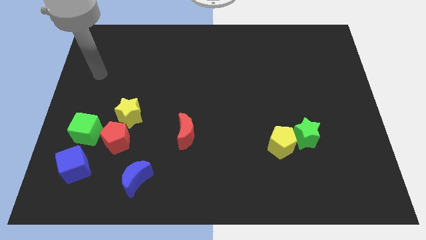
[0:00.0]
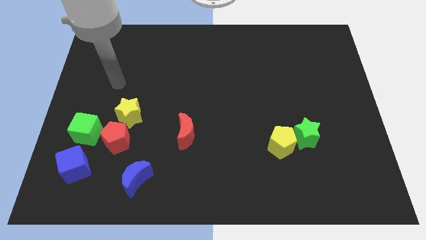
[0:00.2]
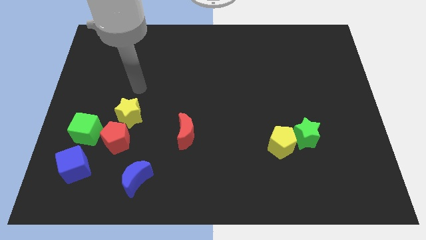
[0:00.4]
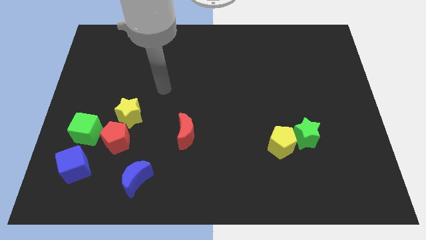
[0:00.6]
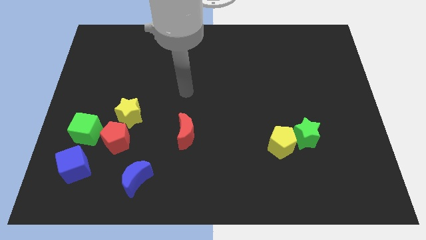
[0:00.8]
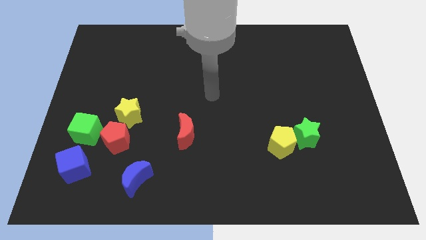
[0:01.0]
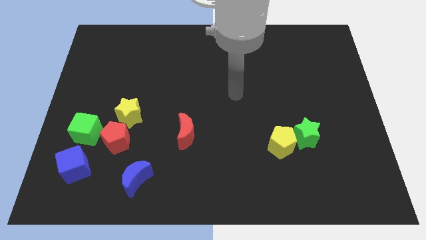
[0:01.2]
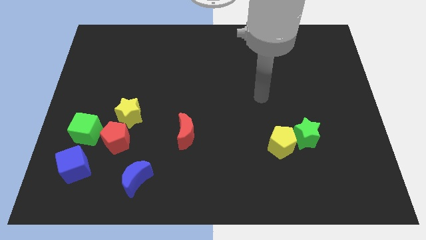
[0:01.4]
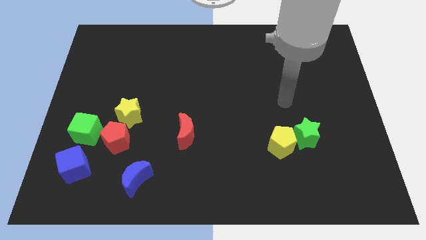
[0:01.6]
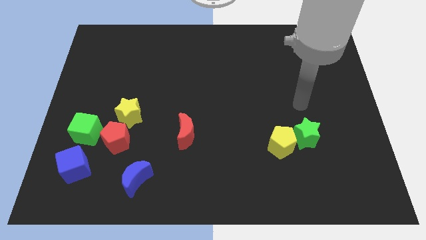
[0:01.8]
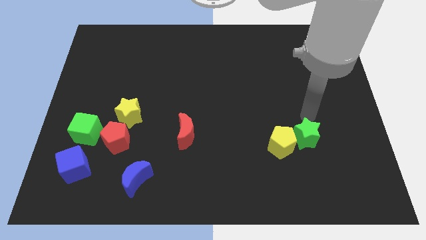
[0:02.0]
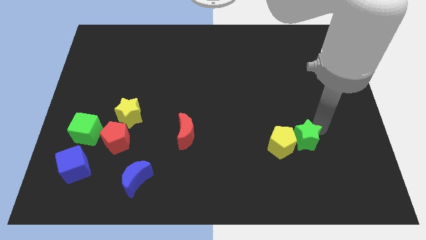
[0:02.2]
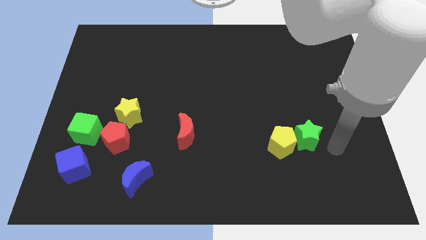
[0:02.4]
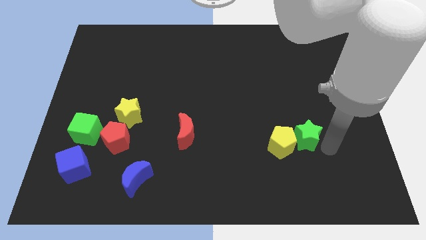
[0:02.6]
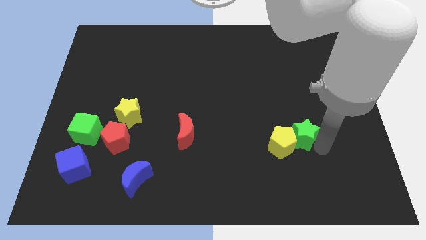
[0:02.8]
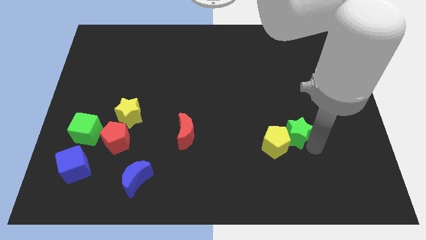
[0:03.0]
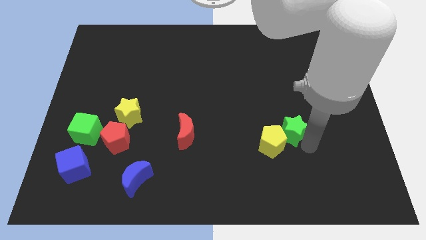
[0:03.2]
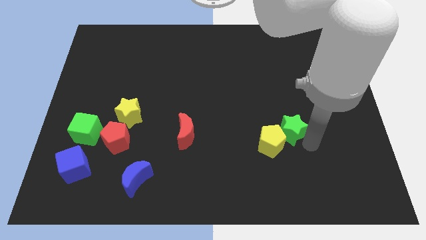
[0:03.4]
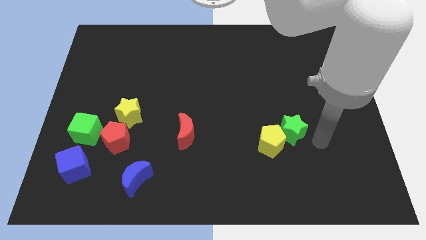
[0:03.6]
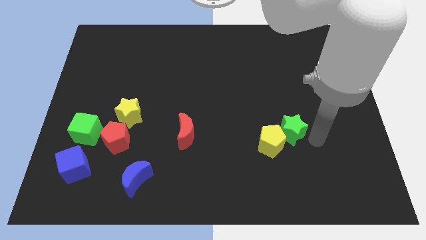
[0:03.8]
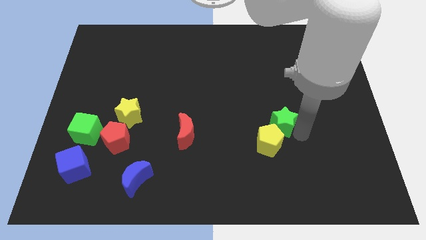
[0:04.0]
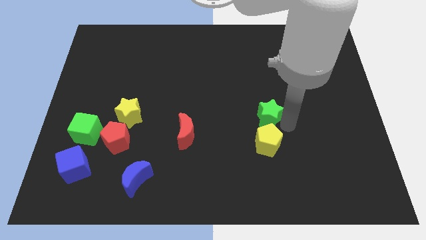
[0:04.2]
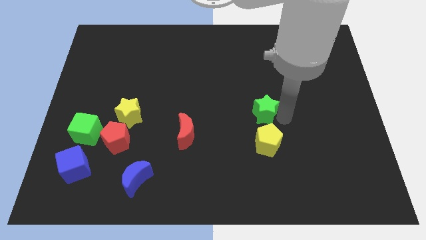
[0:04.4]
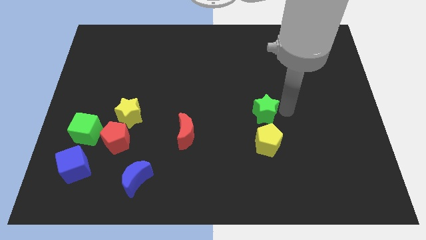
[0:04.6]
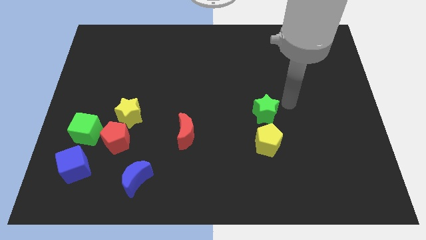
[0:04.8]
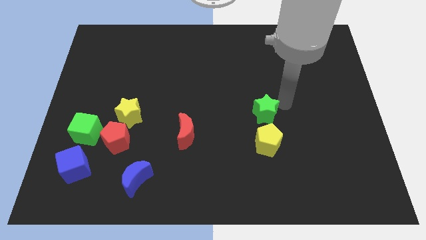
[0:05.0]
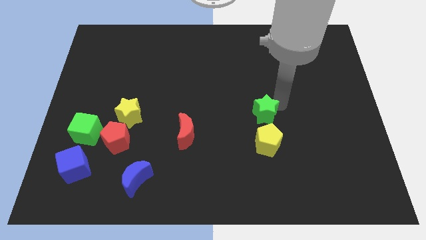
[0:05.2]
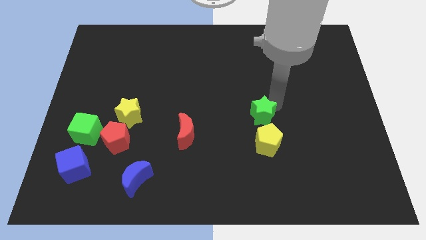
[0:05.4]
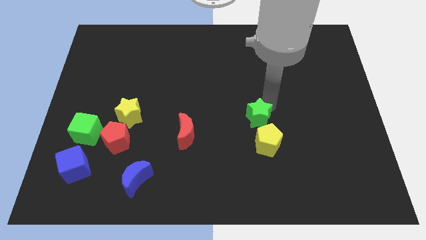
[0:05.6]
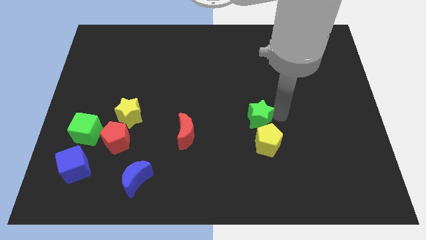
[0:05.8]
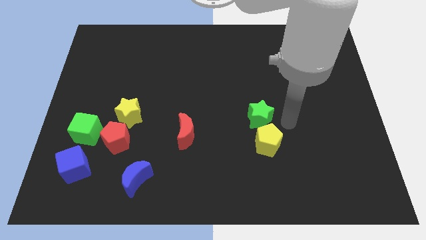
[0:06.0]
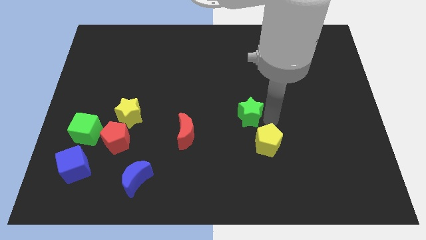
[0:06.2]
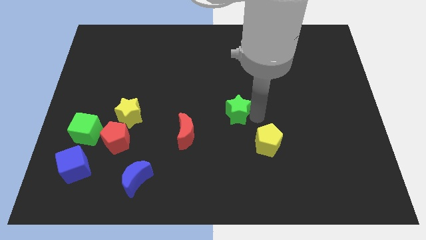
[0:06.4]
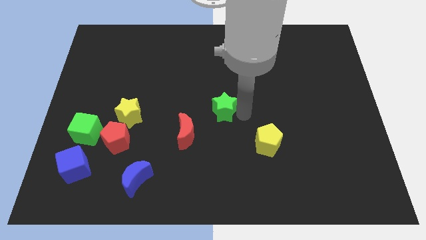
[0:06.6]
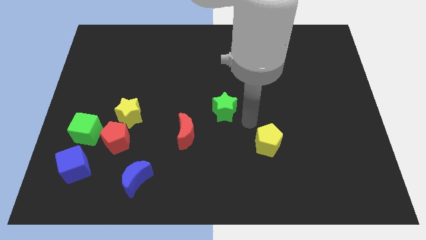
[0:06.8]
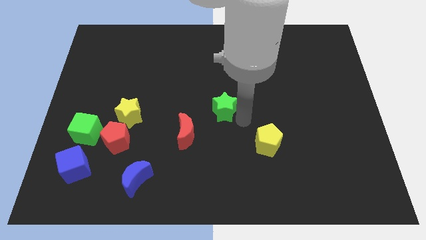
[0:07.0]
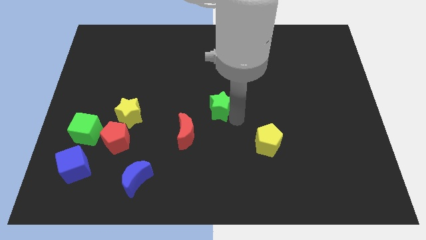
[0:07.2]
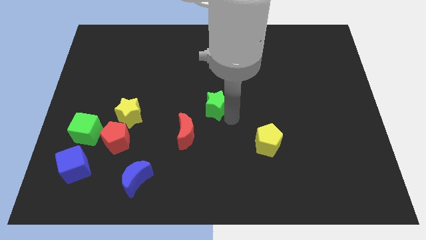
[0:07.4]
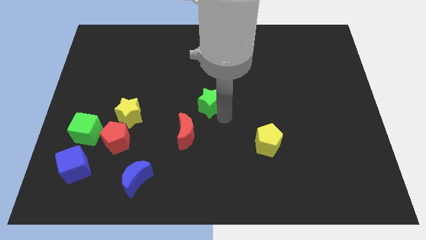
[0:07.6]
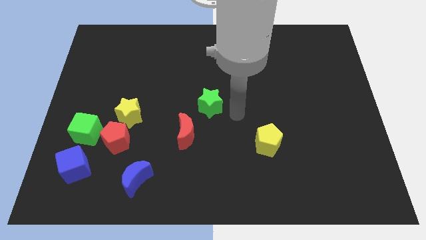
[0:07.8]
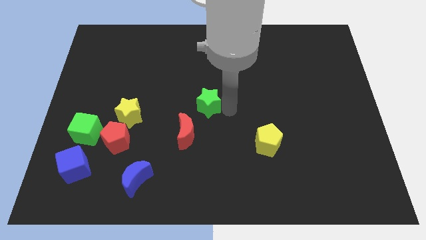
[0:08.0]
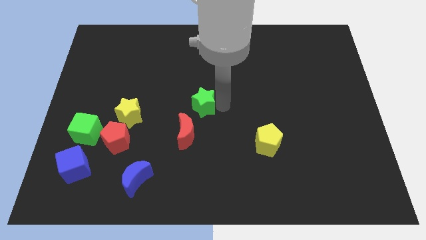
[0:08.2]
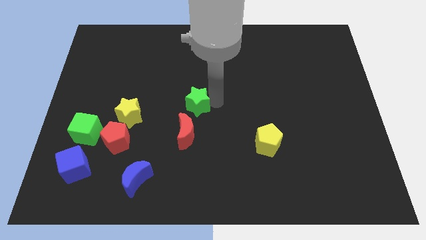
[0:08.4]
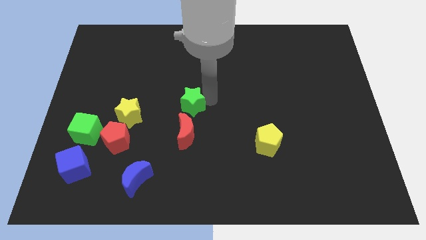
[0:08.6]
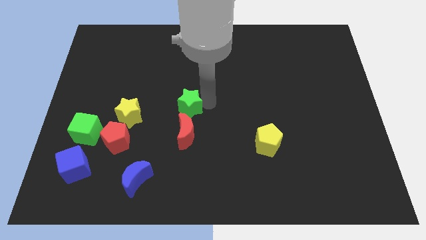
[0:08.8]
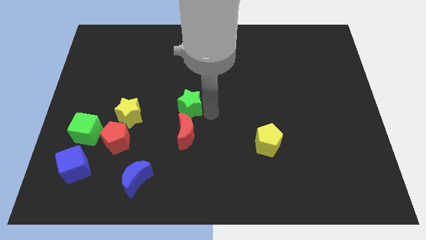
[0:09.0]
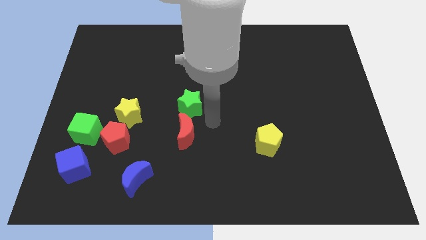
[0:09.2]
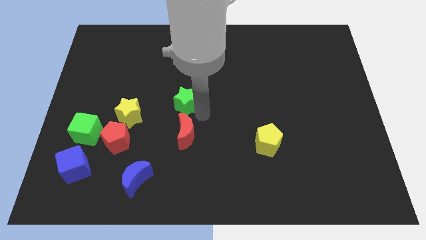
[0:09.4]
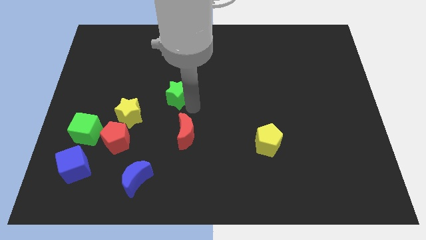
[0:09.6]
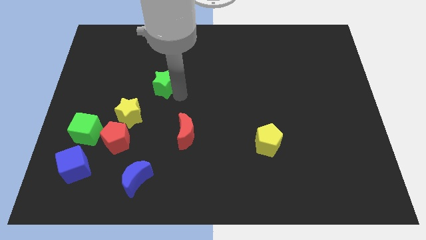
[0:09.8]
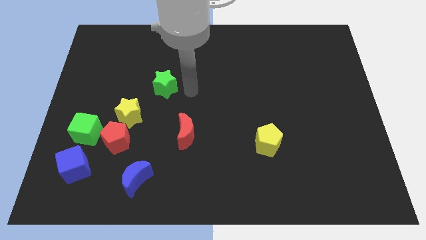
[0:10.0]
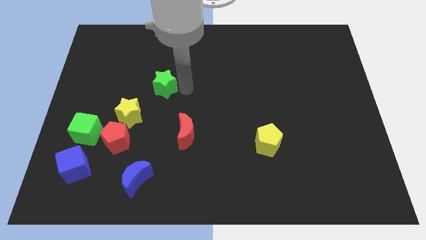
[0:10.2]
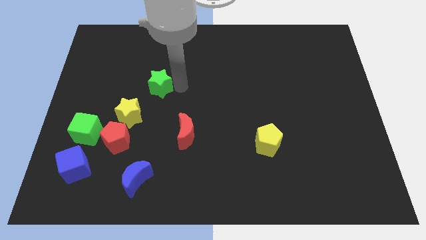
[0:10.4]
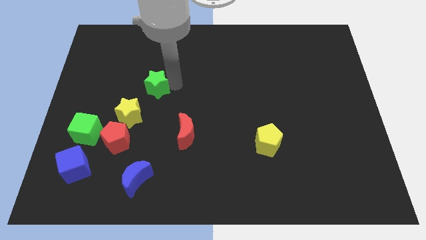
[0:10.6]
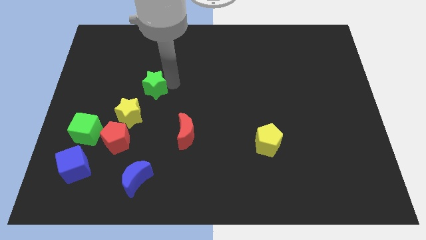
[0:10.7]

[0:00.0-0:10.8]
move the green star to the top side of the yellow star

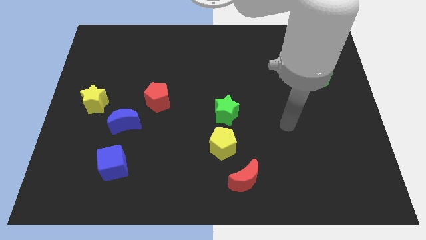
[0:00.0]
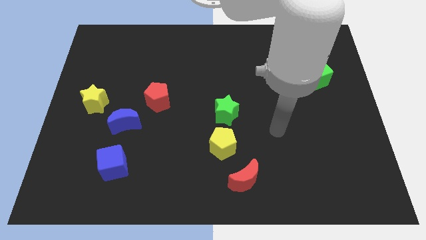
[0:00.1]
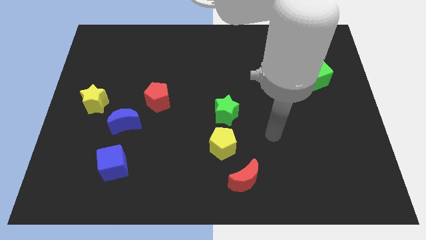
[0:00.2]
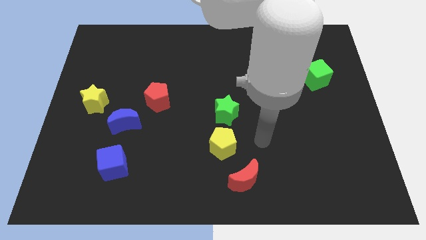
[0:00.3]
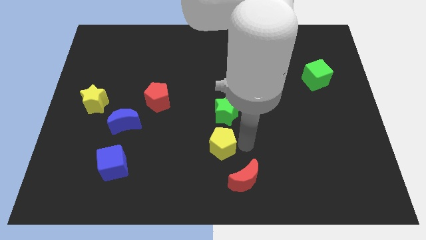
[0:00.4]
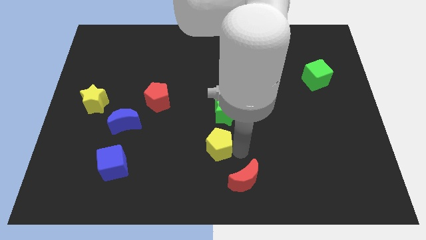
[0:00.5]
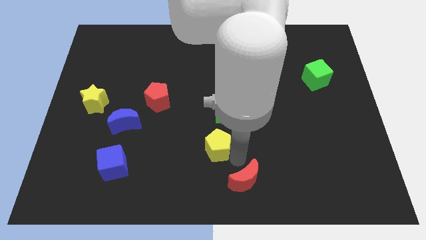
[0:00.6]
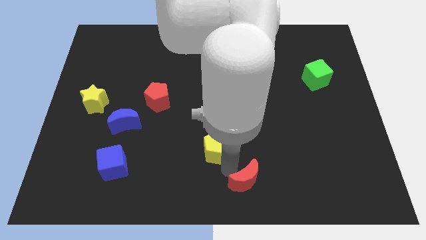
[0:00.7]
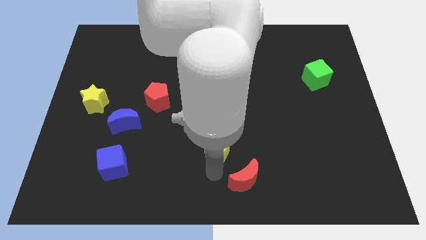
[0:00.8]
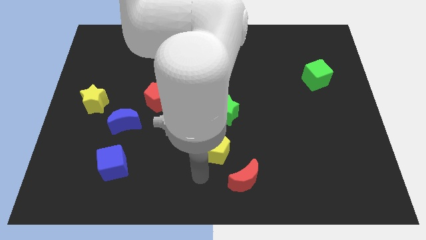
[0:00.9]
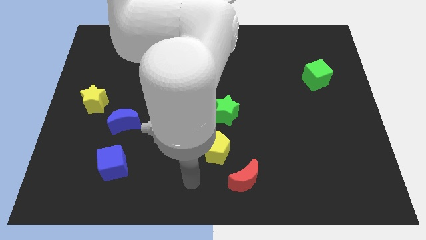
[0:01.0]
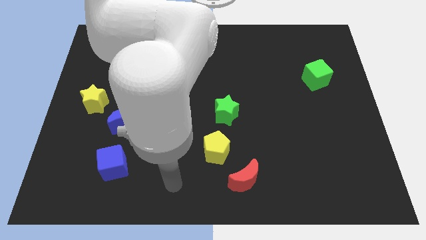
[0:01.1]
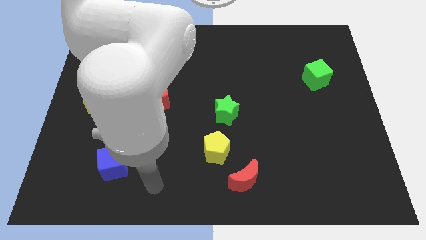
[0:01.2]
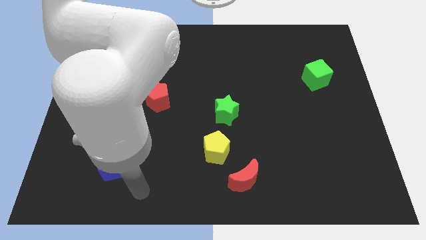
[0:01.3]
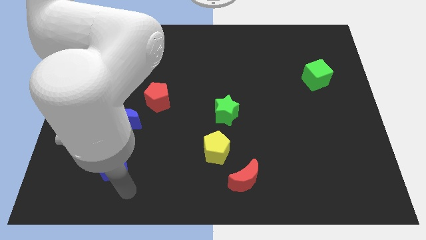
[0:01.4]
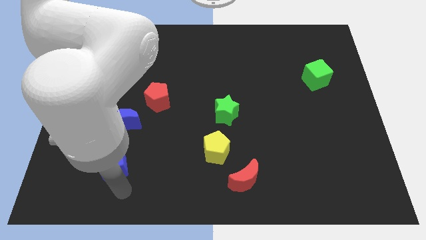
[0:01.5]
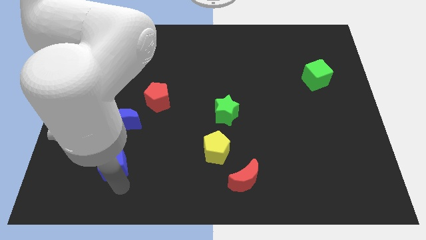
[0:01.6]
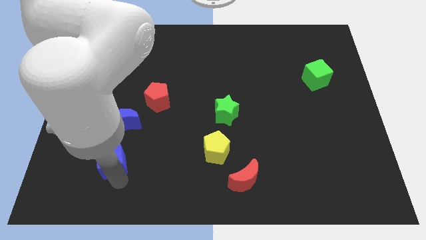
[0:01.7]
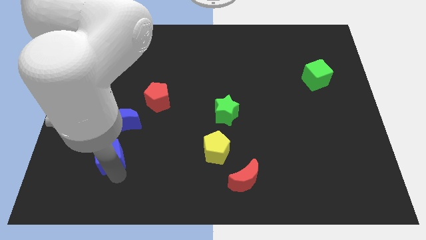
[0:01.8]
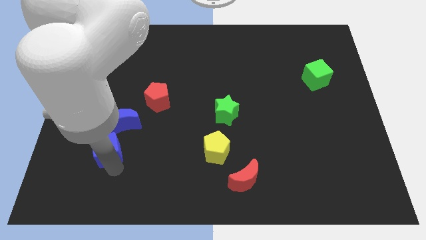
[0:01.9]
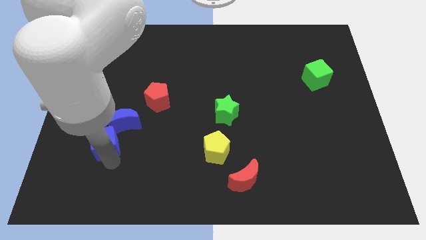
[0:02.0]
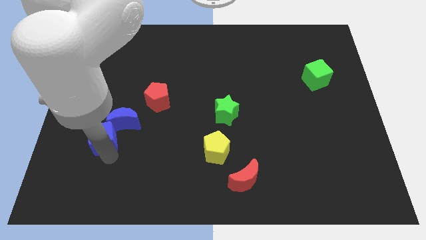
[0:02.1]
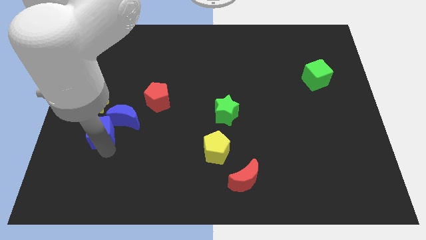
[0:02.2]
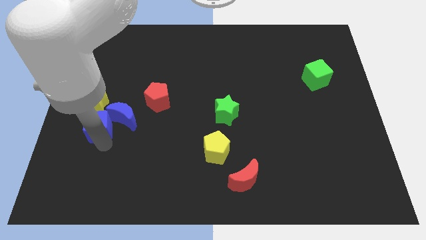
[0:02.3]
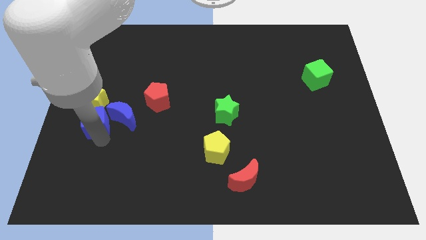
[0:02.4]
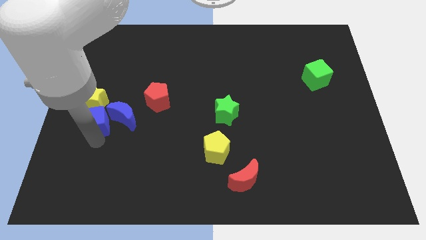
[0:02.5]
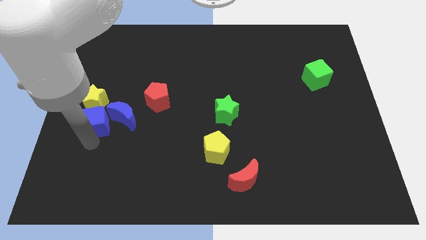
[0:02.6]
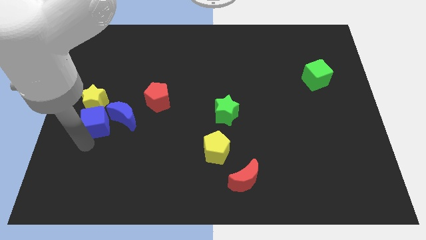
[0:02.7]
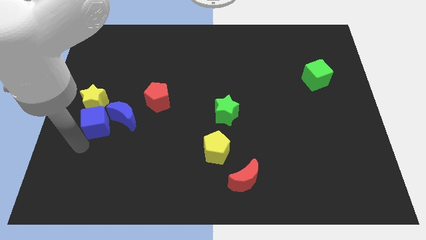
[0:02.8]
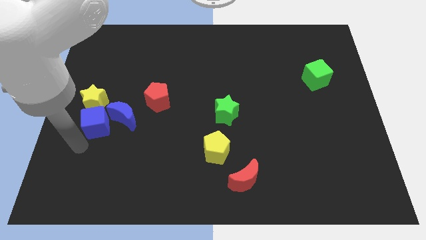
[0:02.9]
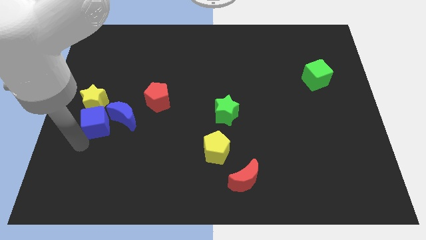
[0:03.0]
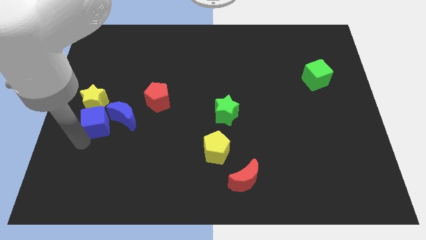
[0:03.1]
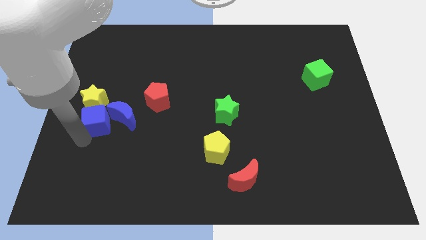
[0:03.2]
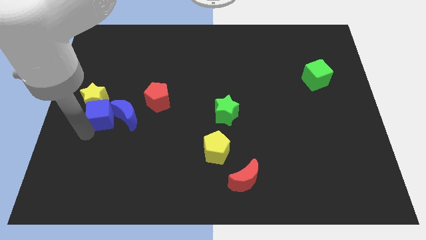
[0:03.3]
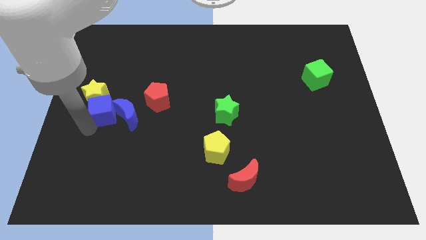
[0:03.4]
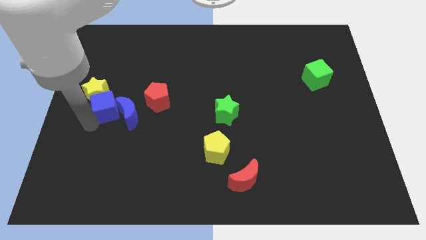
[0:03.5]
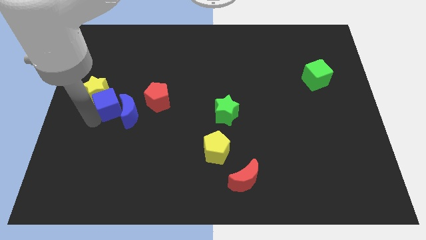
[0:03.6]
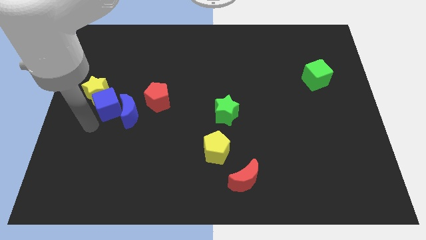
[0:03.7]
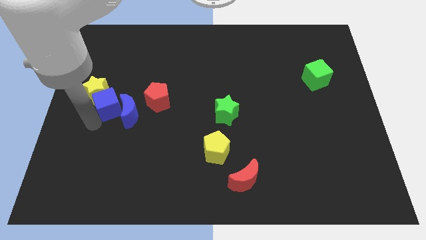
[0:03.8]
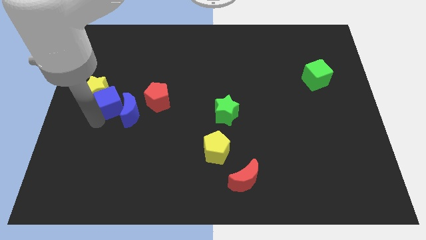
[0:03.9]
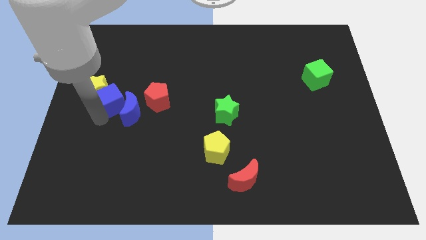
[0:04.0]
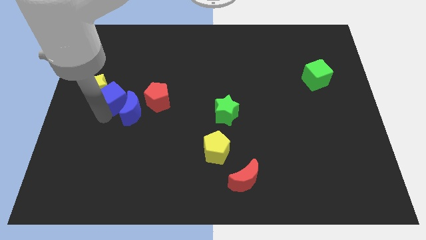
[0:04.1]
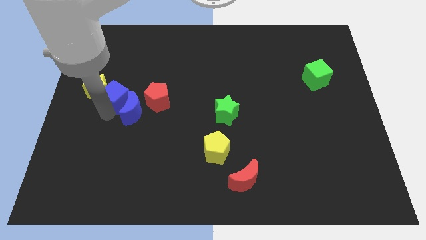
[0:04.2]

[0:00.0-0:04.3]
push the blue cube to the top of the blue moon
